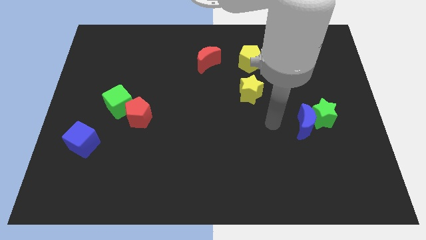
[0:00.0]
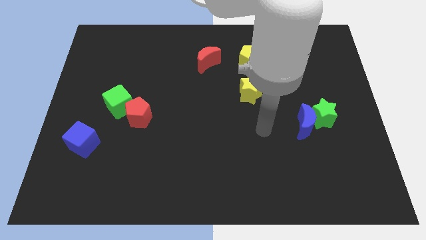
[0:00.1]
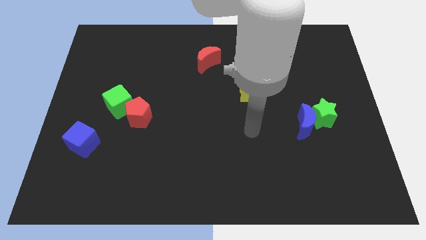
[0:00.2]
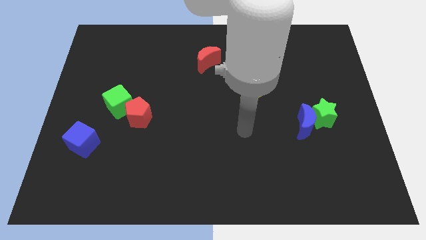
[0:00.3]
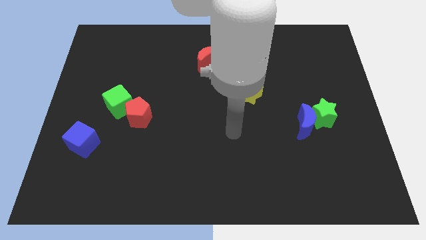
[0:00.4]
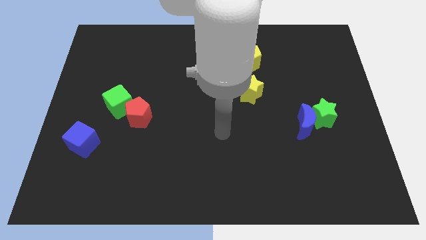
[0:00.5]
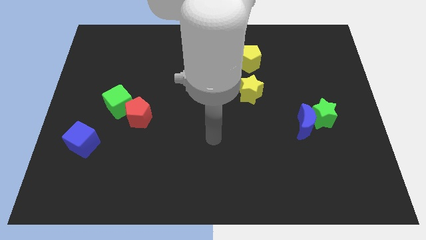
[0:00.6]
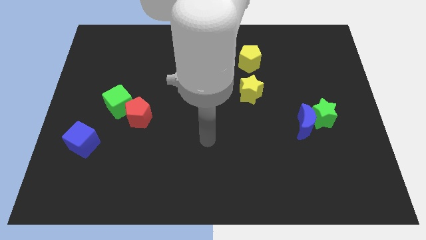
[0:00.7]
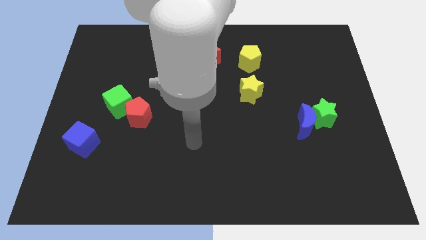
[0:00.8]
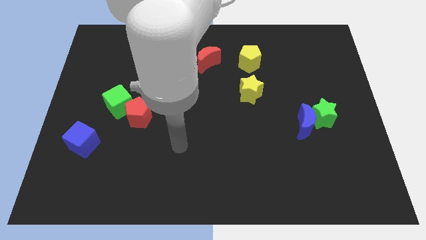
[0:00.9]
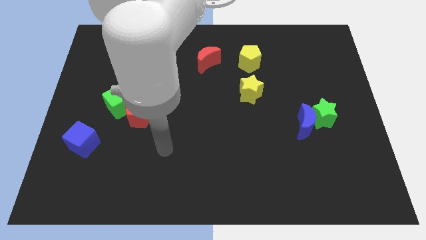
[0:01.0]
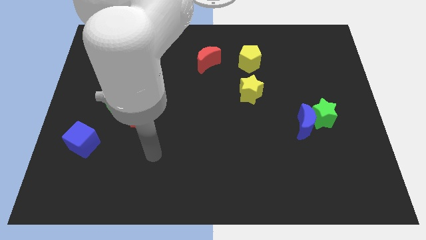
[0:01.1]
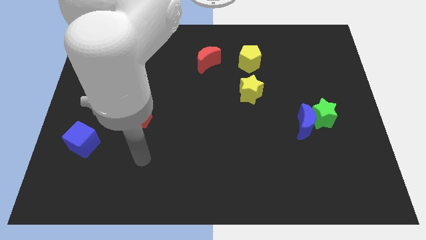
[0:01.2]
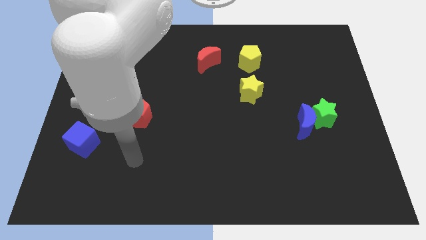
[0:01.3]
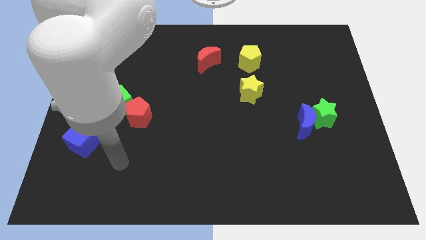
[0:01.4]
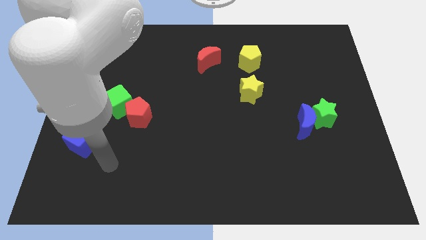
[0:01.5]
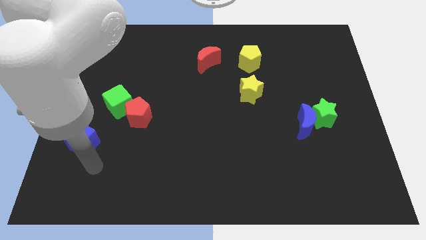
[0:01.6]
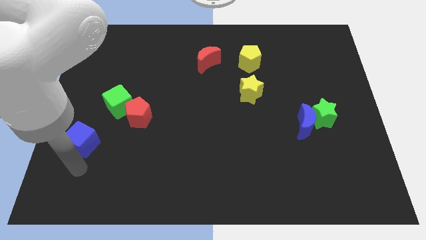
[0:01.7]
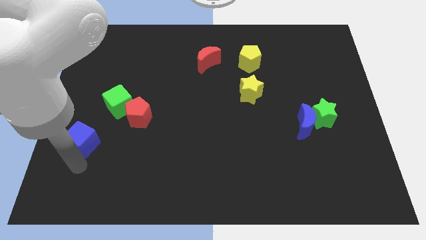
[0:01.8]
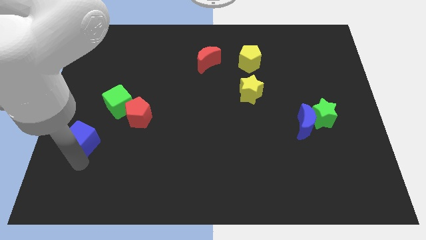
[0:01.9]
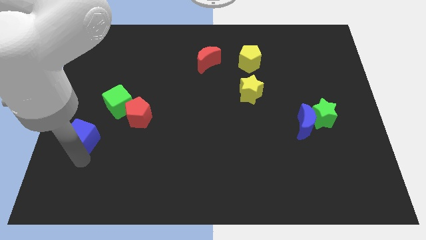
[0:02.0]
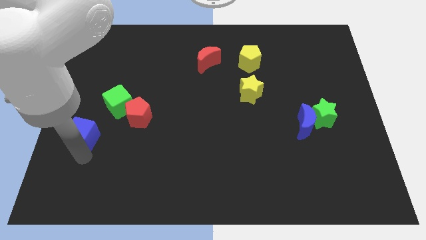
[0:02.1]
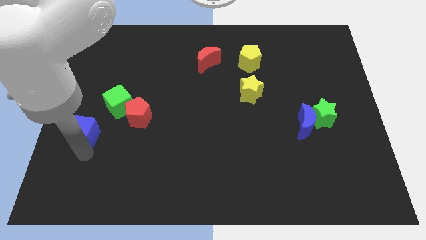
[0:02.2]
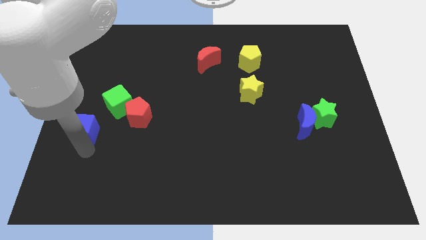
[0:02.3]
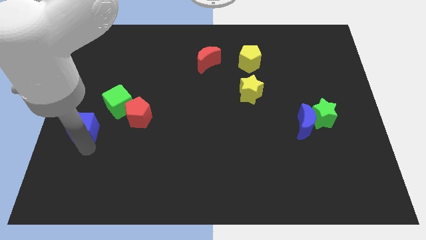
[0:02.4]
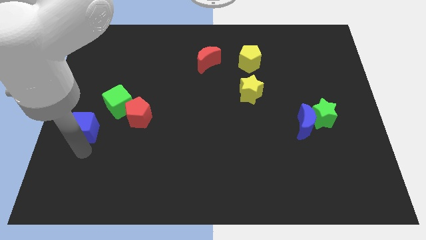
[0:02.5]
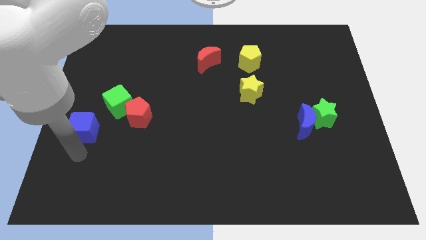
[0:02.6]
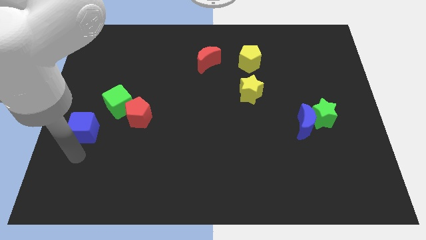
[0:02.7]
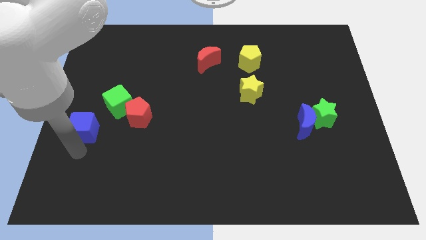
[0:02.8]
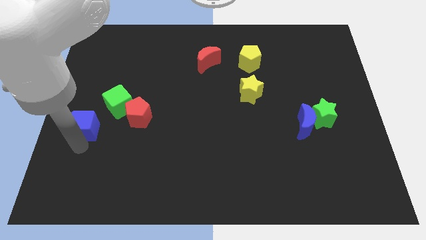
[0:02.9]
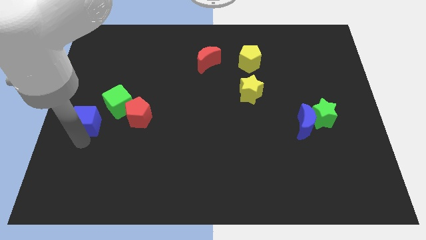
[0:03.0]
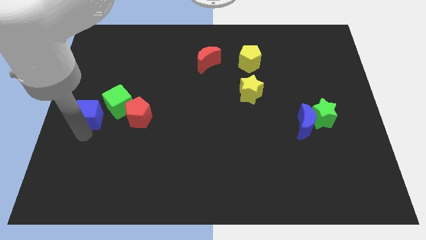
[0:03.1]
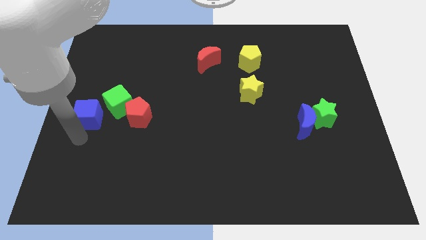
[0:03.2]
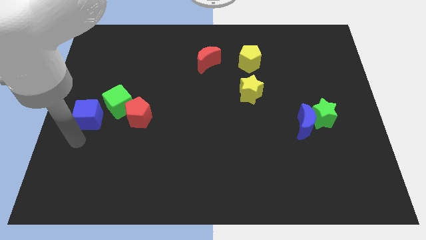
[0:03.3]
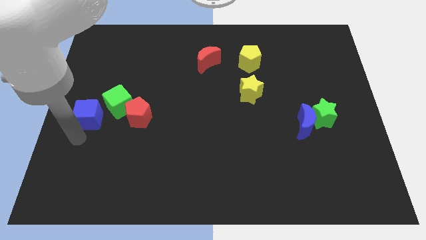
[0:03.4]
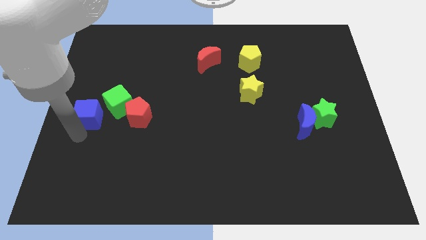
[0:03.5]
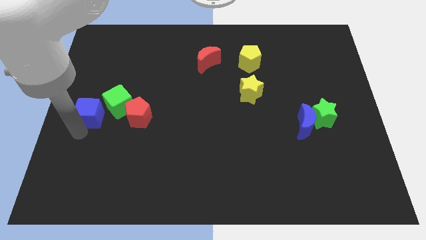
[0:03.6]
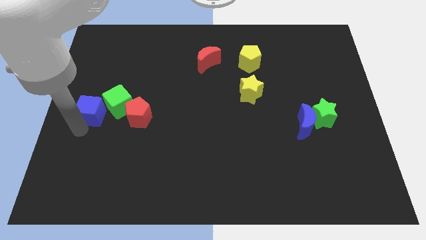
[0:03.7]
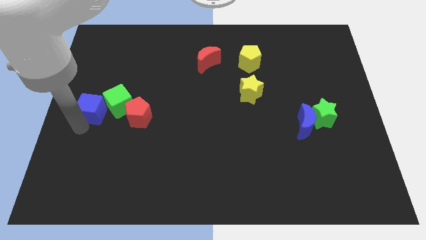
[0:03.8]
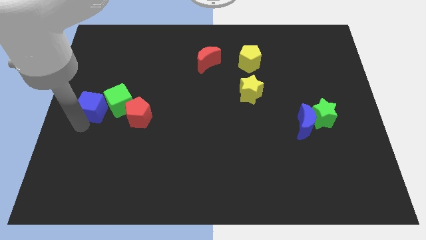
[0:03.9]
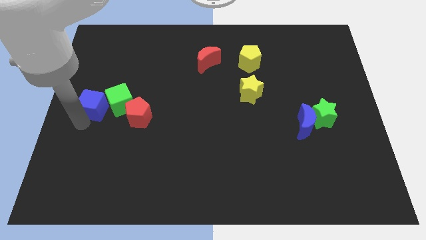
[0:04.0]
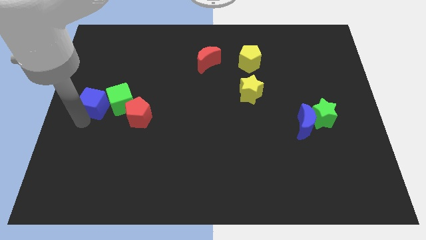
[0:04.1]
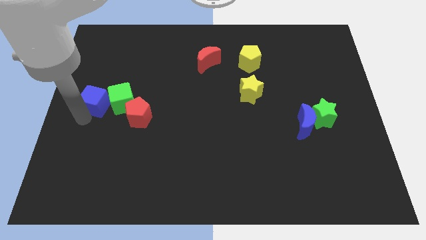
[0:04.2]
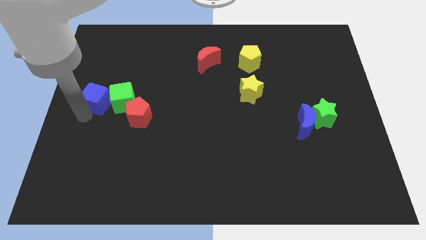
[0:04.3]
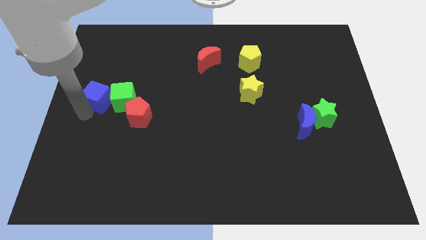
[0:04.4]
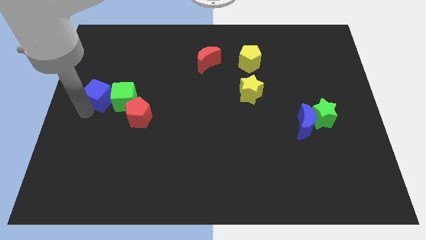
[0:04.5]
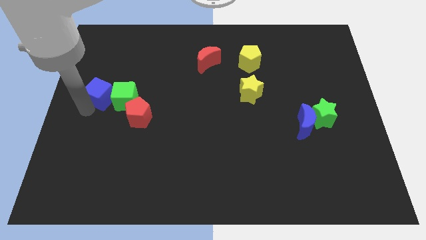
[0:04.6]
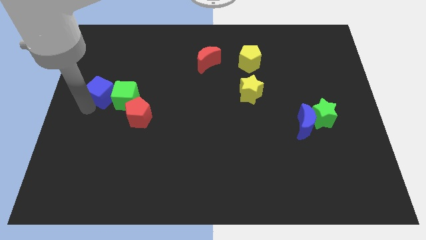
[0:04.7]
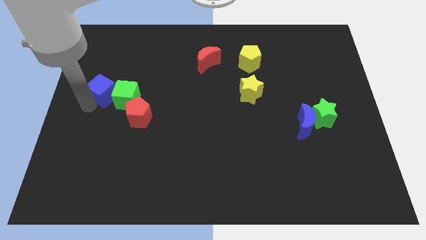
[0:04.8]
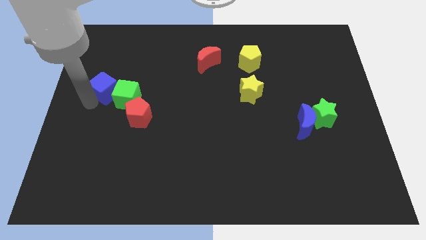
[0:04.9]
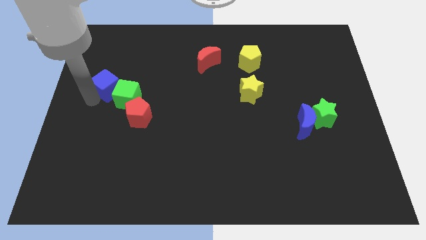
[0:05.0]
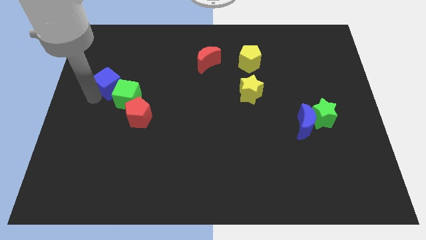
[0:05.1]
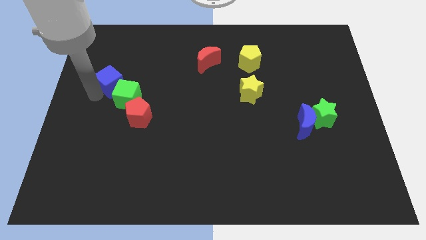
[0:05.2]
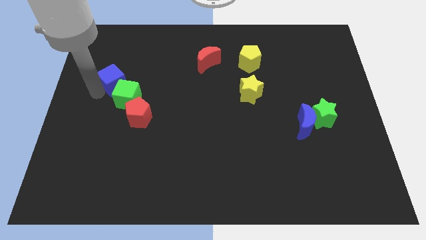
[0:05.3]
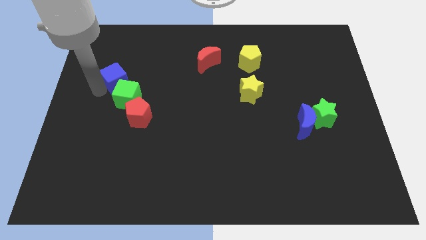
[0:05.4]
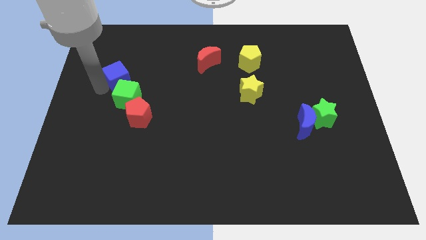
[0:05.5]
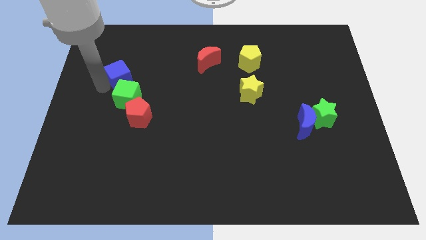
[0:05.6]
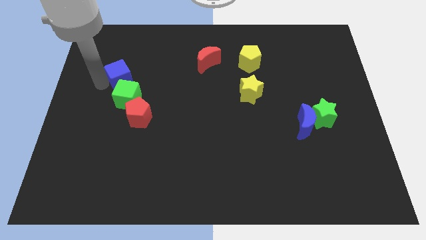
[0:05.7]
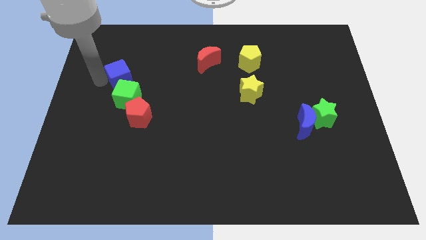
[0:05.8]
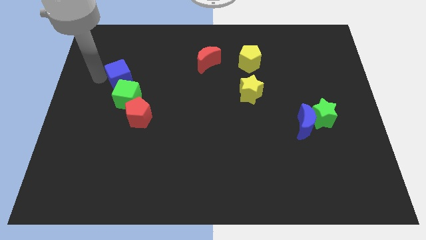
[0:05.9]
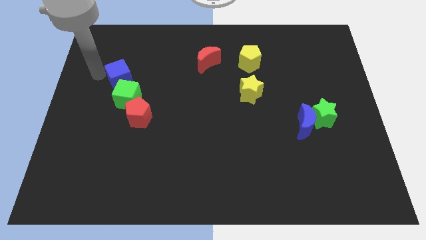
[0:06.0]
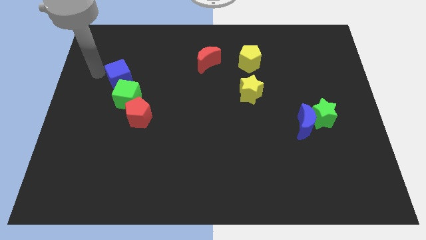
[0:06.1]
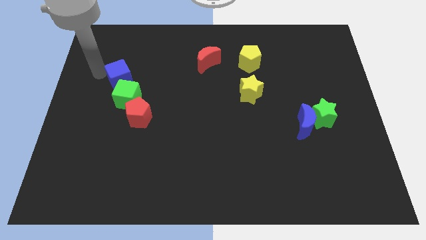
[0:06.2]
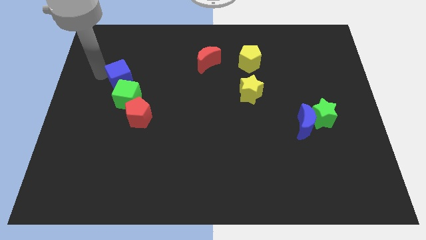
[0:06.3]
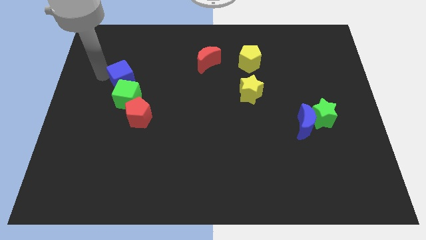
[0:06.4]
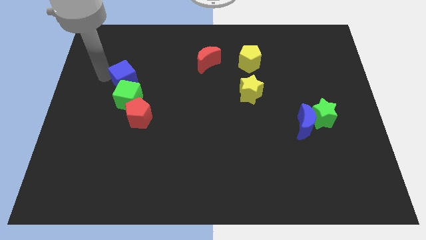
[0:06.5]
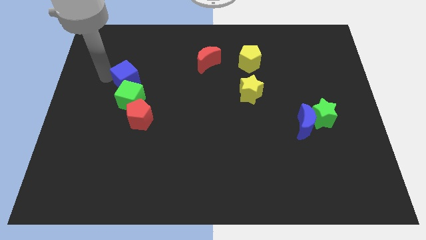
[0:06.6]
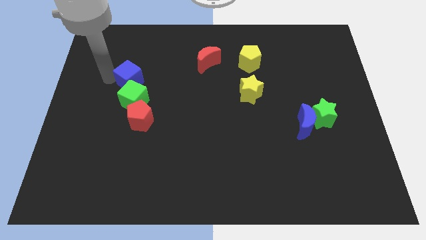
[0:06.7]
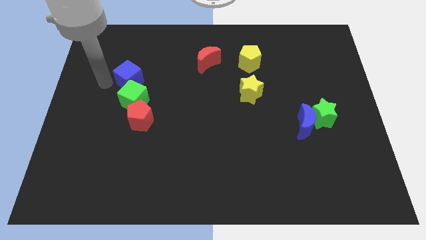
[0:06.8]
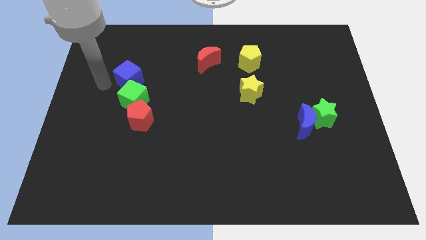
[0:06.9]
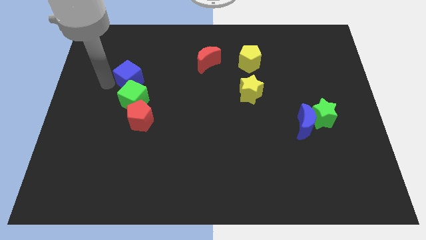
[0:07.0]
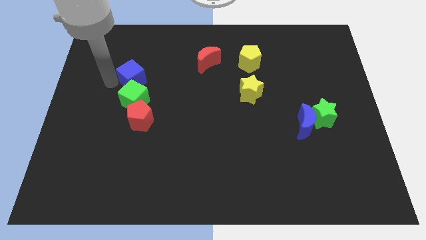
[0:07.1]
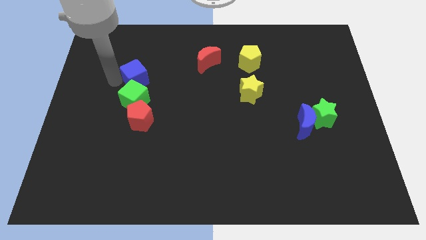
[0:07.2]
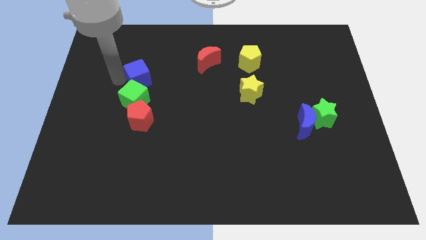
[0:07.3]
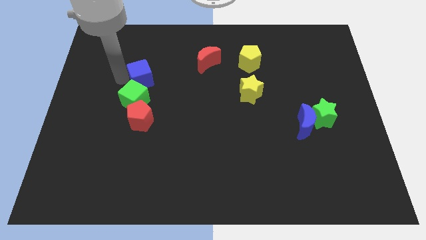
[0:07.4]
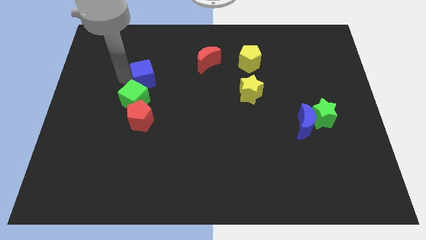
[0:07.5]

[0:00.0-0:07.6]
slide the blue cube diagonally upwards and right

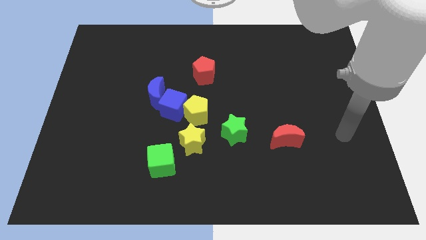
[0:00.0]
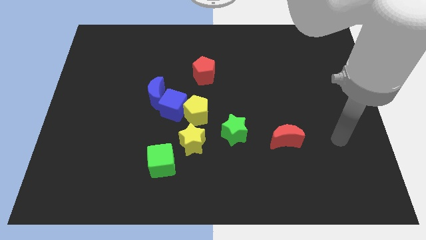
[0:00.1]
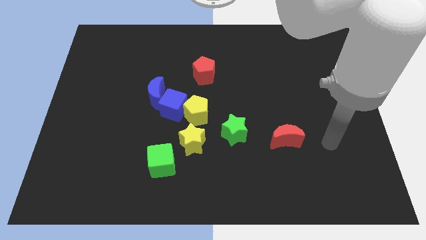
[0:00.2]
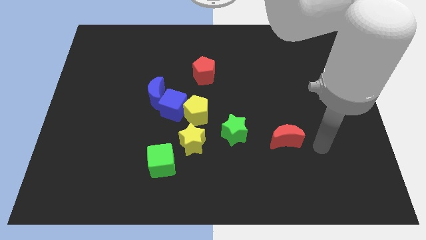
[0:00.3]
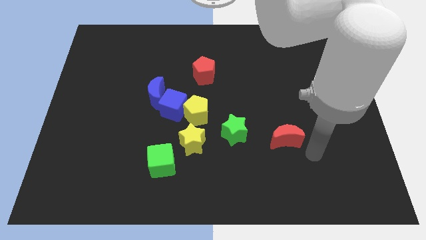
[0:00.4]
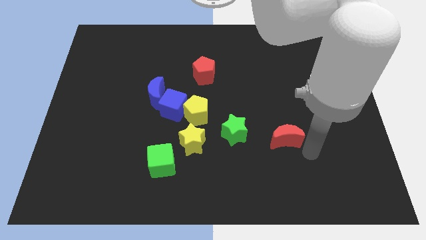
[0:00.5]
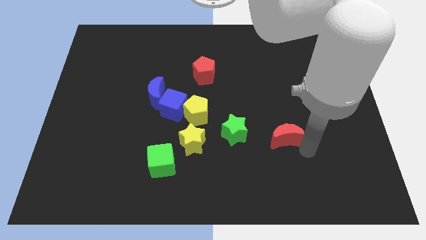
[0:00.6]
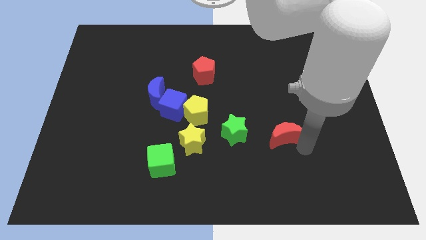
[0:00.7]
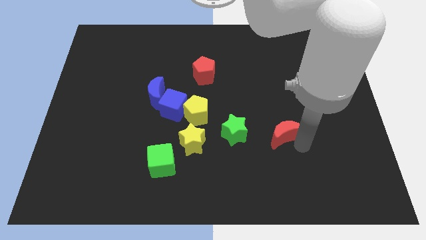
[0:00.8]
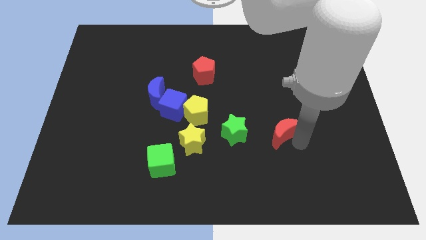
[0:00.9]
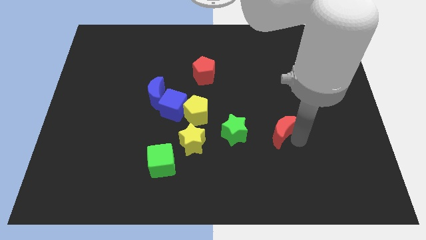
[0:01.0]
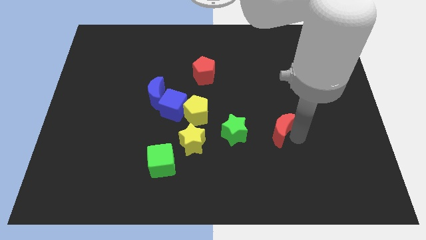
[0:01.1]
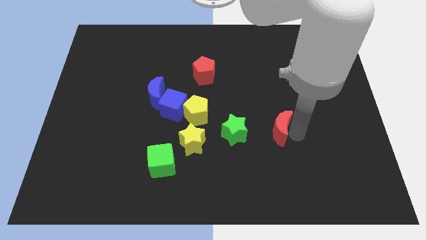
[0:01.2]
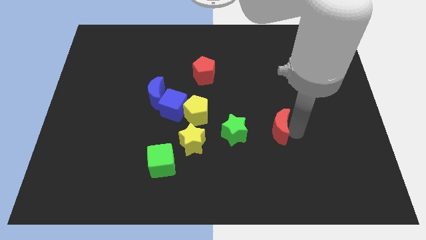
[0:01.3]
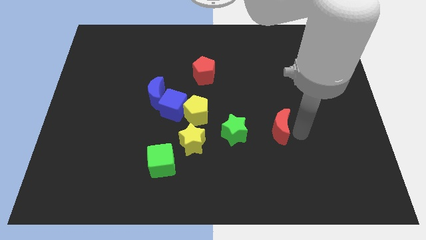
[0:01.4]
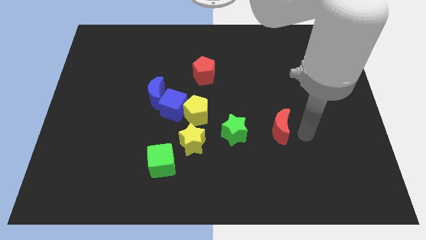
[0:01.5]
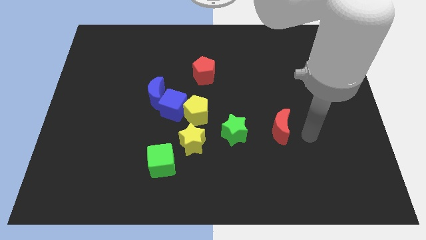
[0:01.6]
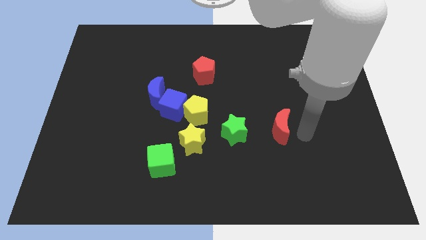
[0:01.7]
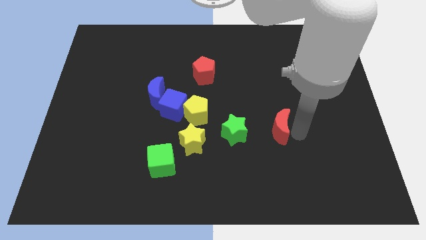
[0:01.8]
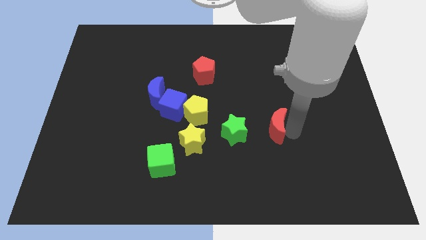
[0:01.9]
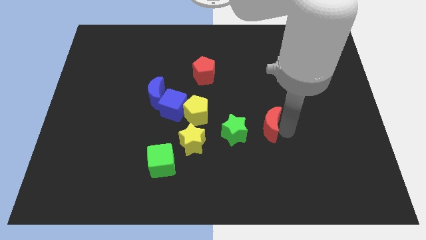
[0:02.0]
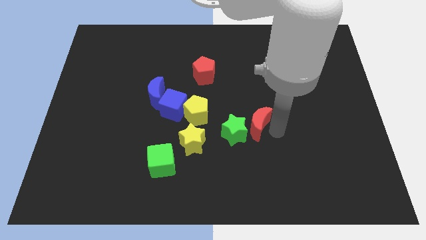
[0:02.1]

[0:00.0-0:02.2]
slide the red moon up and then left a bit
